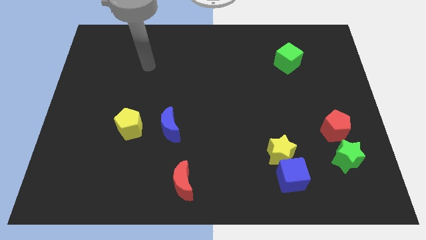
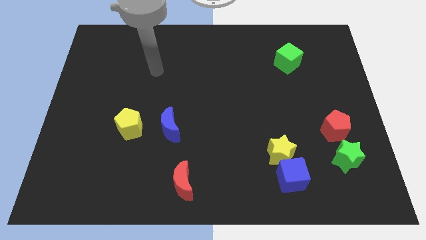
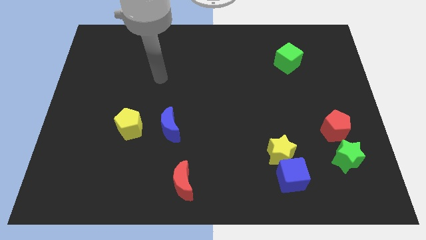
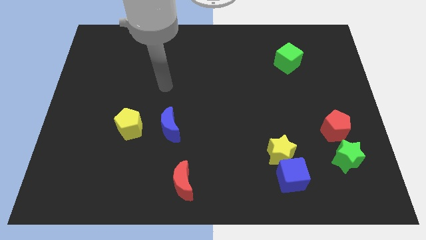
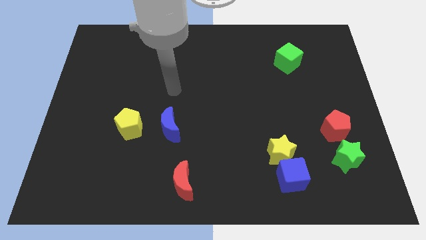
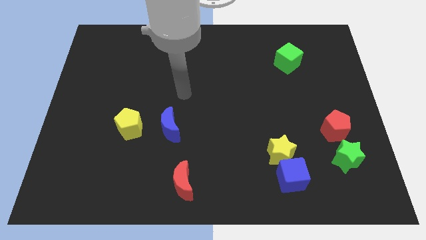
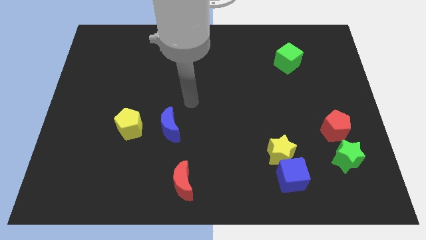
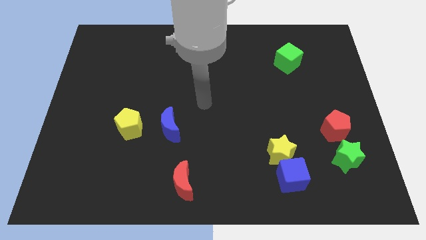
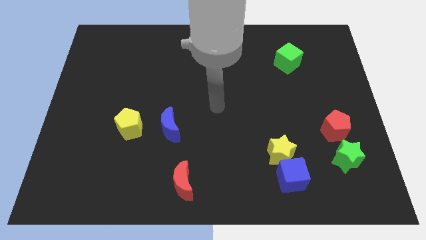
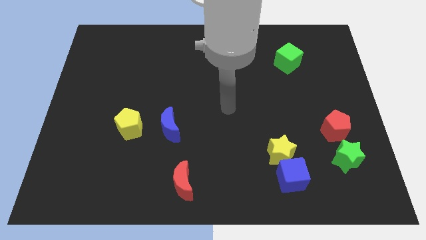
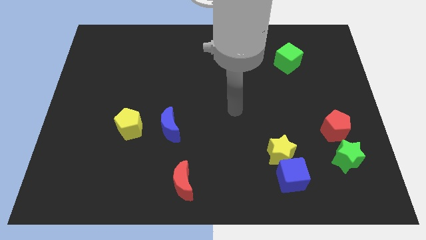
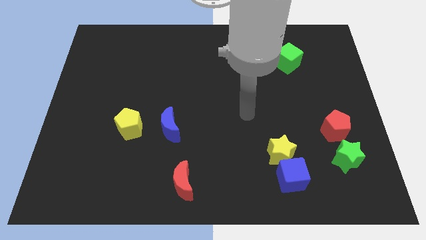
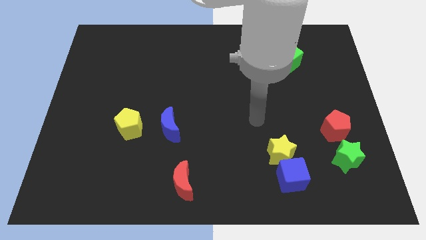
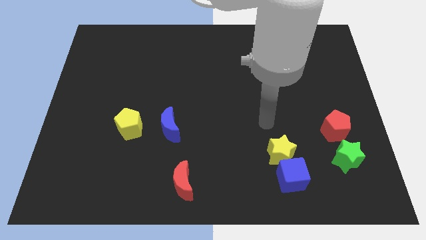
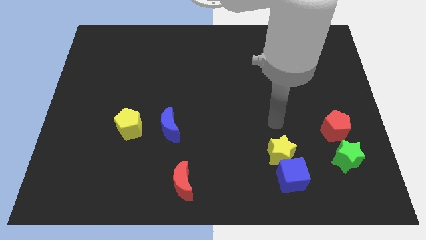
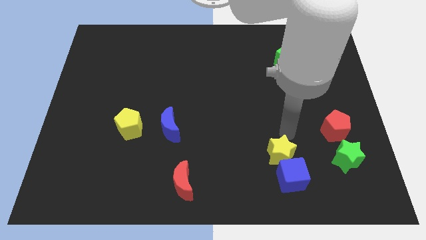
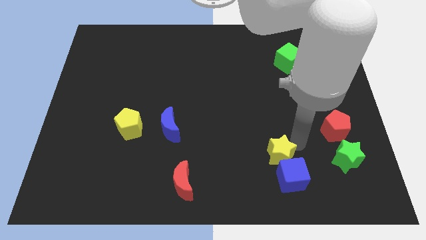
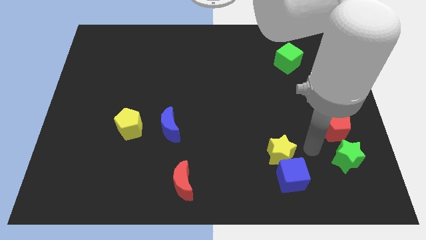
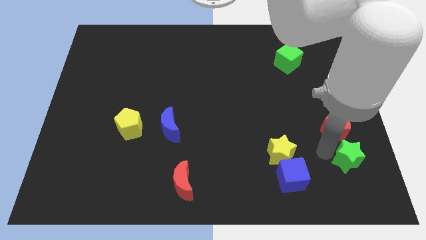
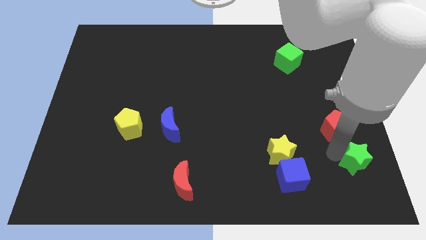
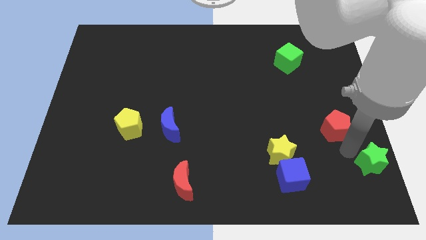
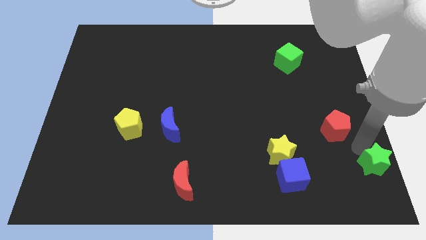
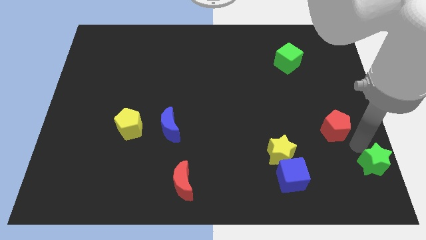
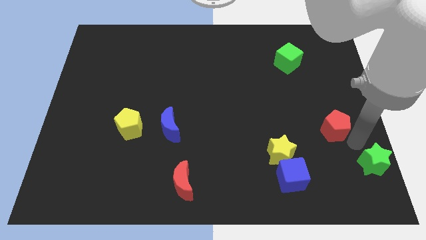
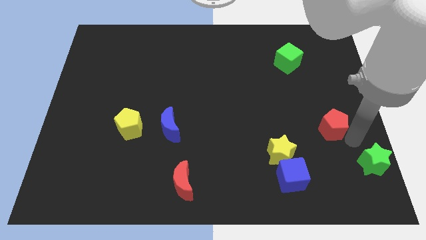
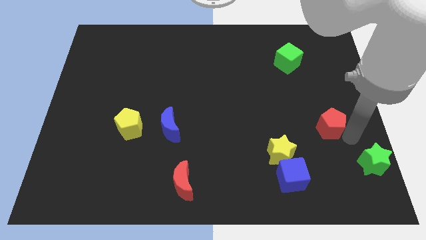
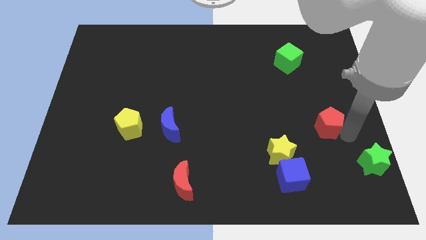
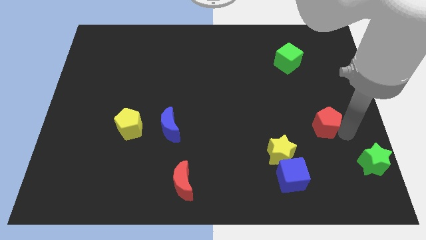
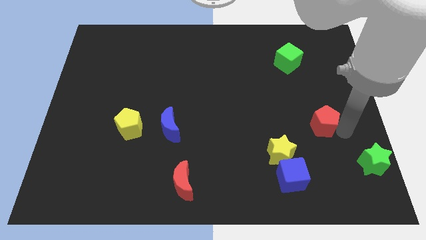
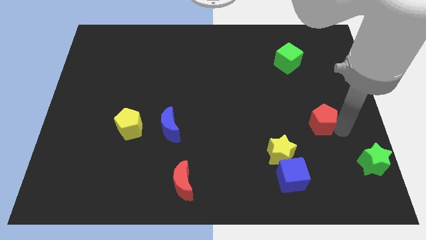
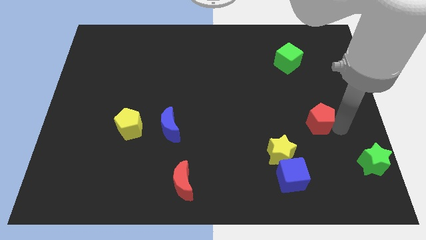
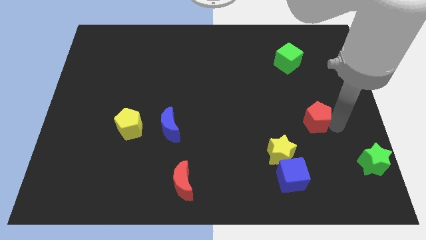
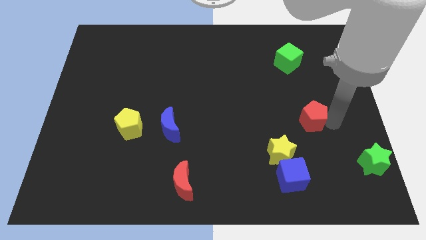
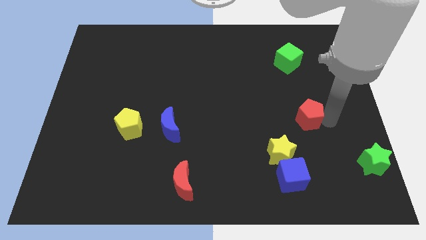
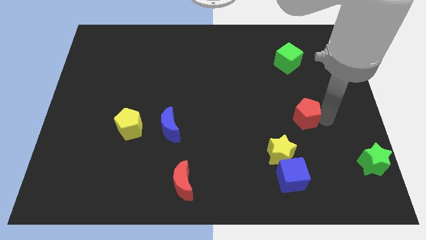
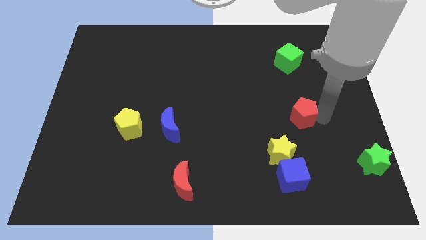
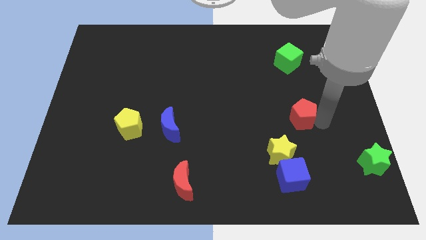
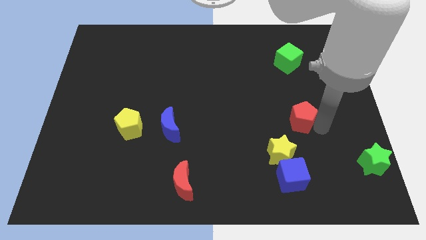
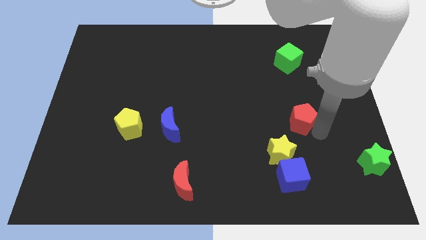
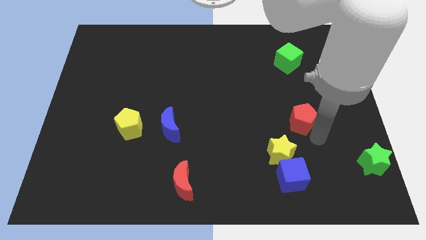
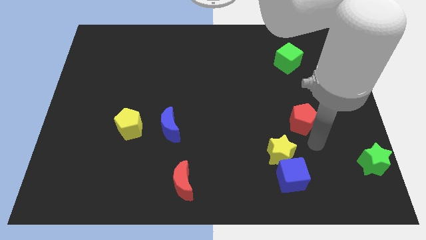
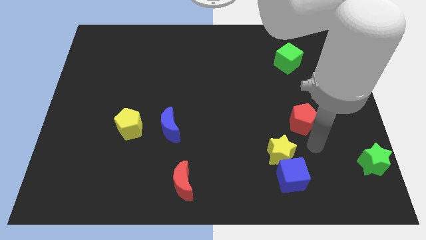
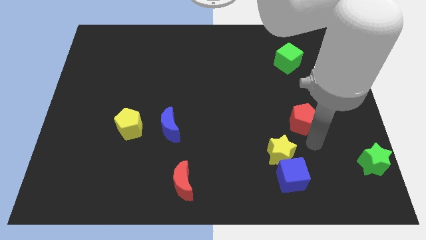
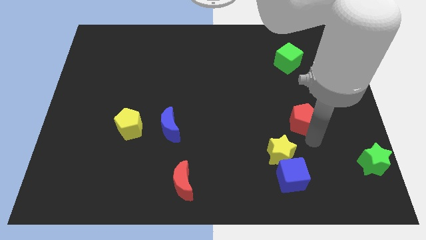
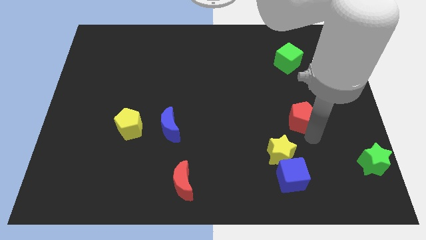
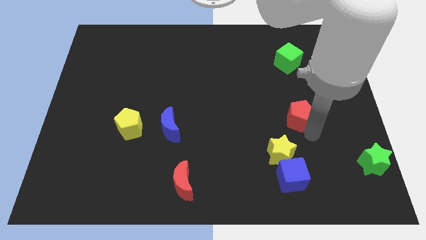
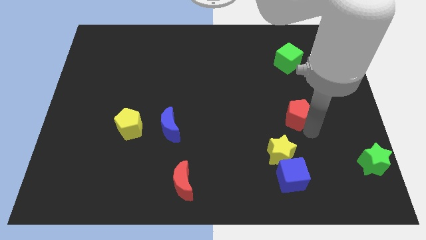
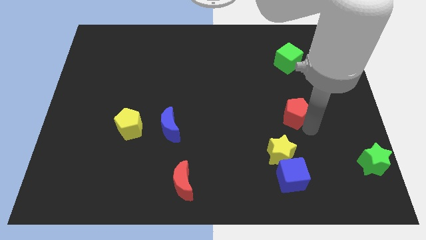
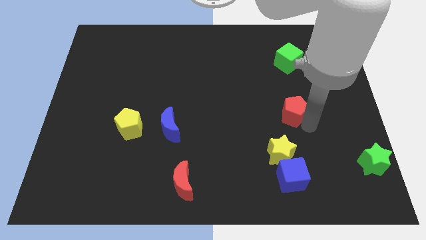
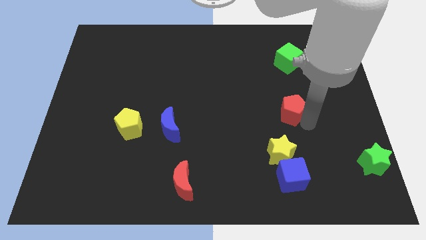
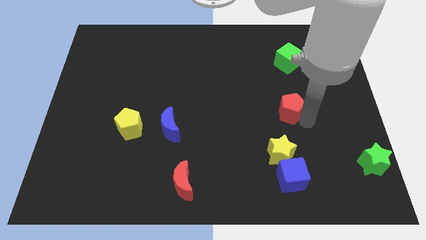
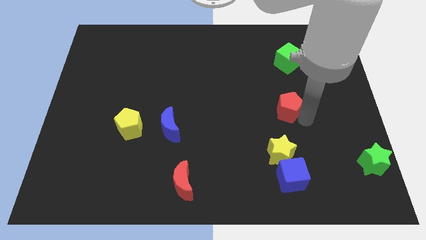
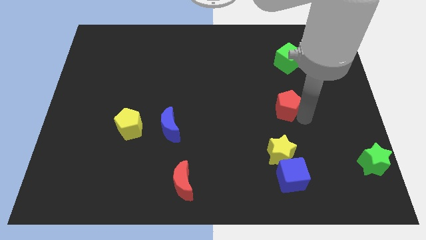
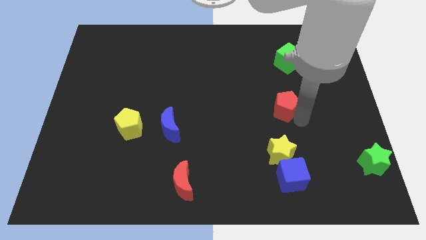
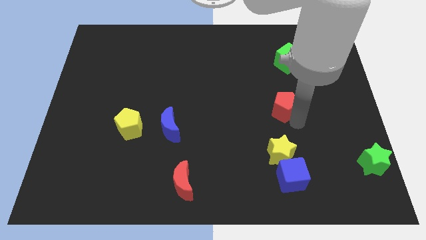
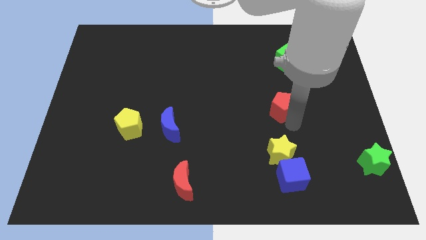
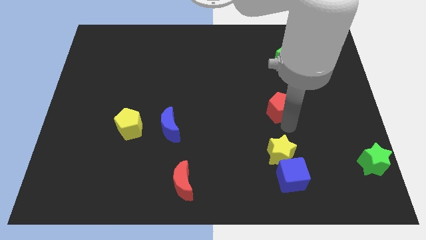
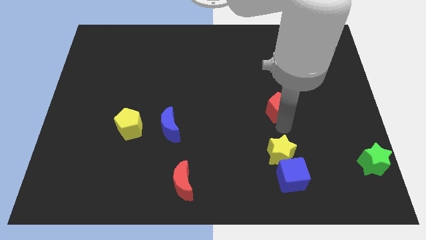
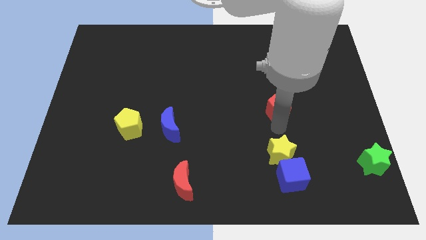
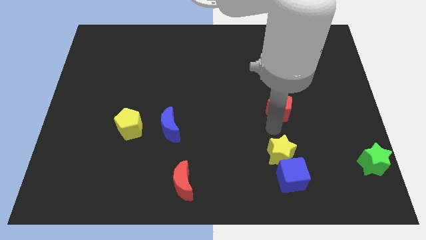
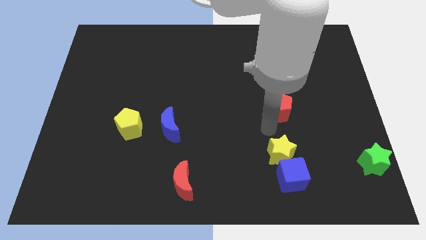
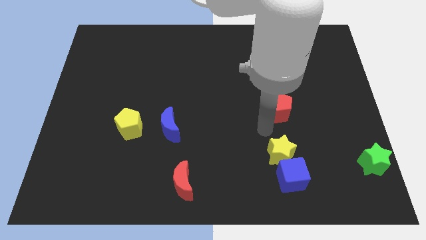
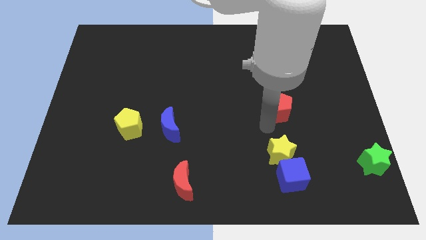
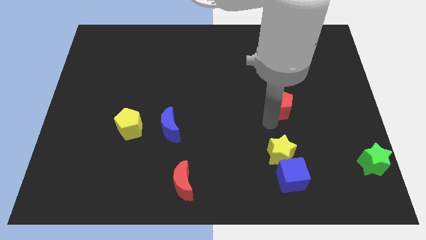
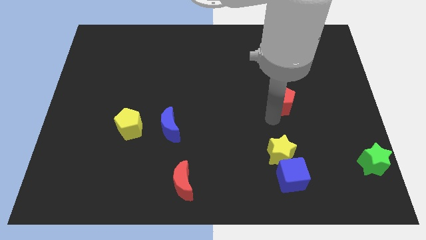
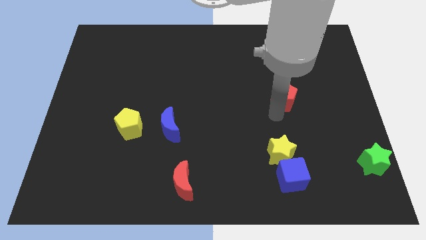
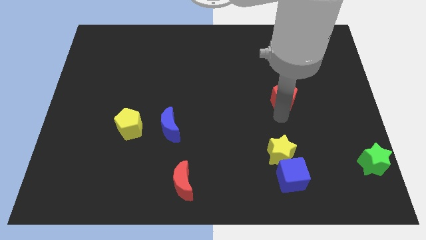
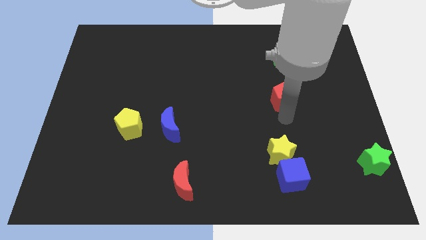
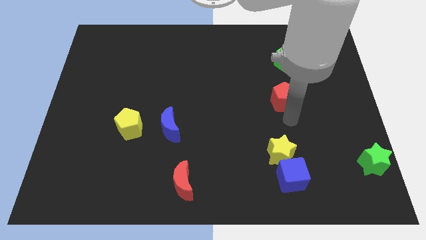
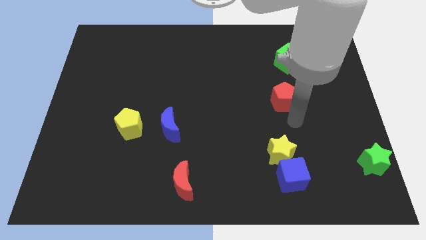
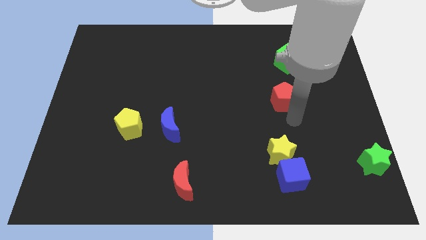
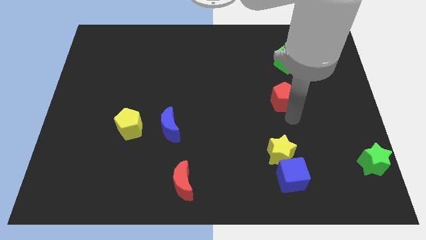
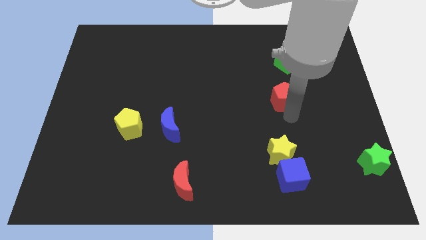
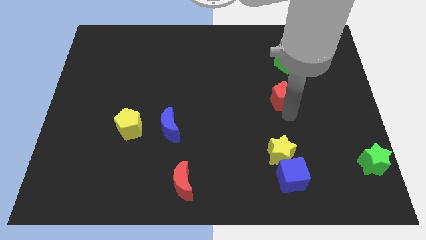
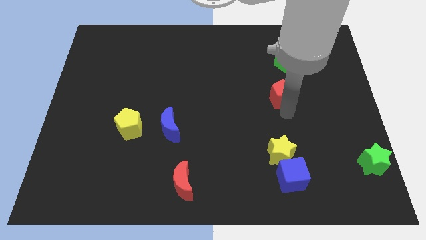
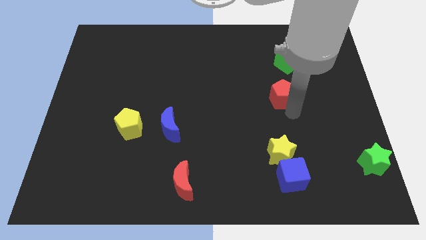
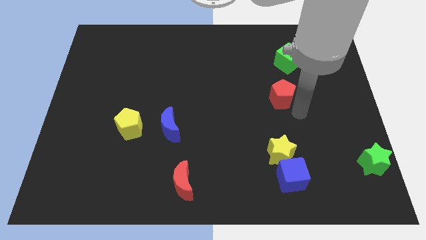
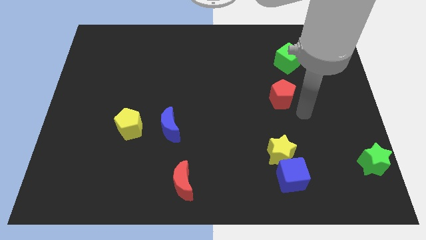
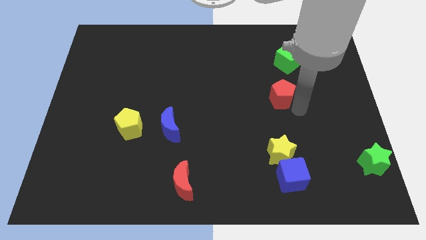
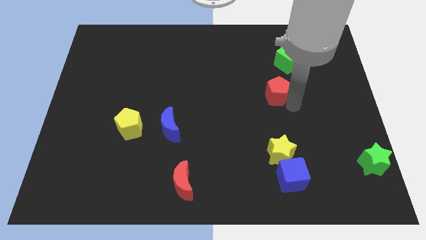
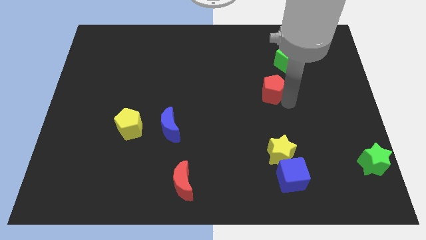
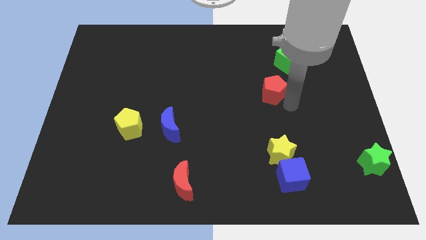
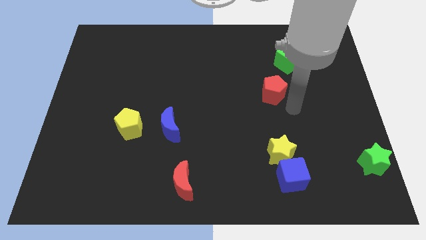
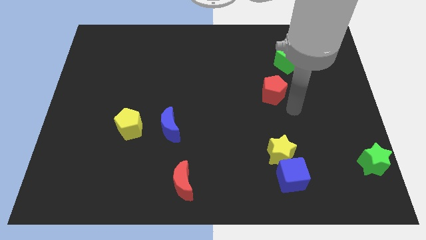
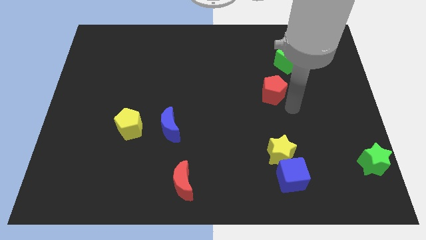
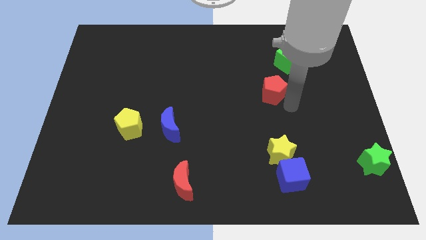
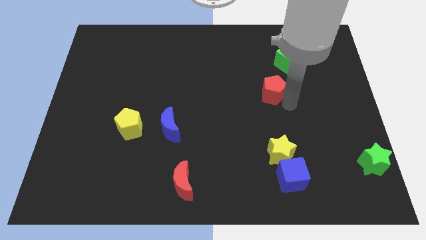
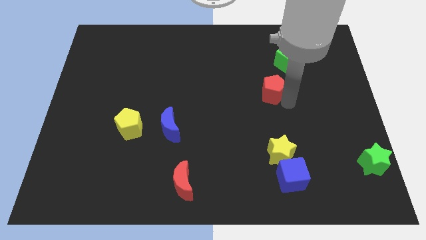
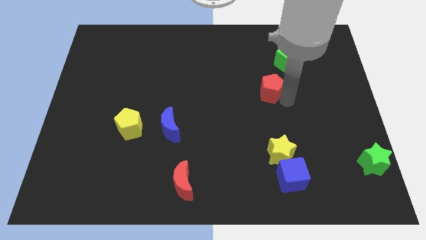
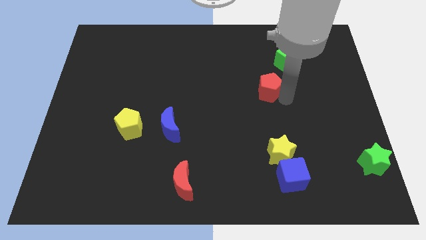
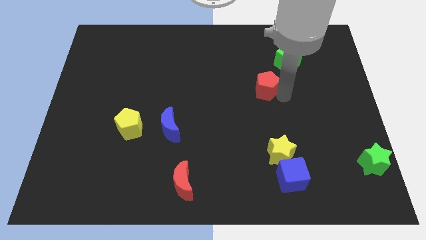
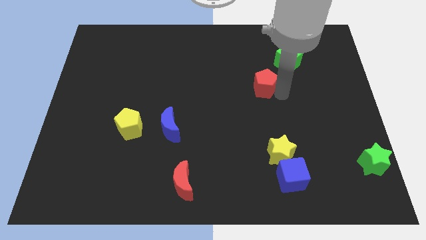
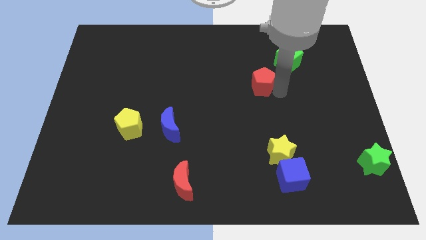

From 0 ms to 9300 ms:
move the red pentagon up and then left
